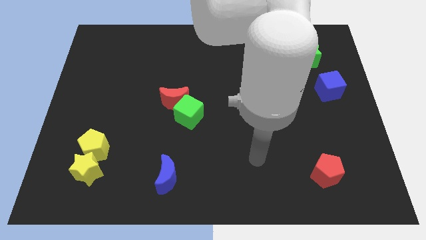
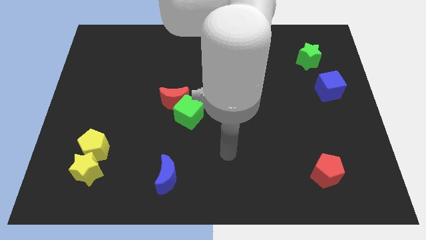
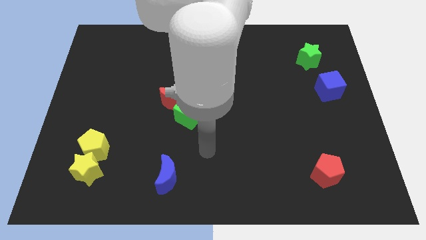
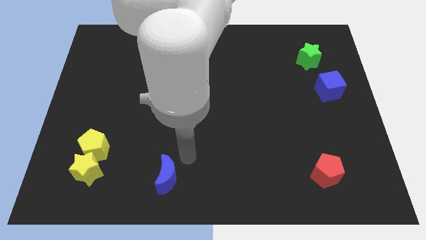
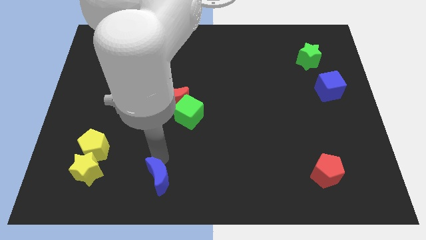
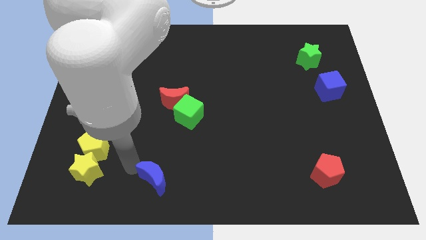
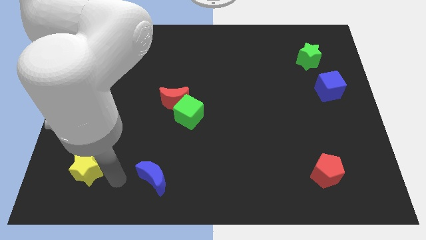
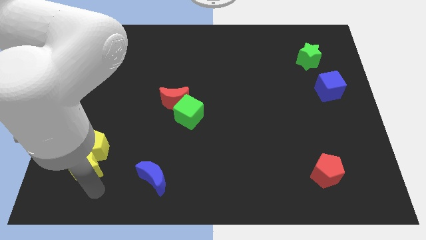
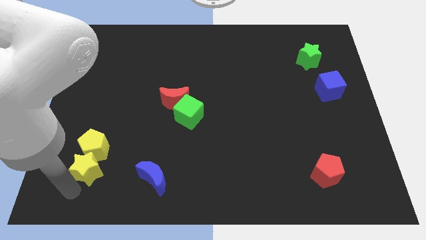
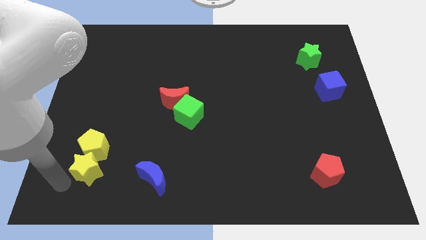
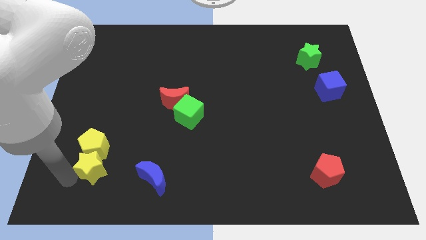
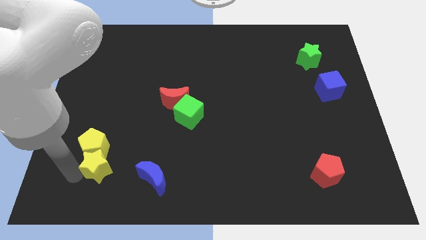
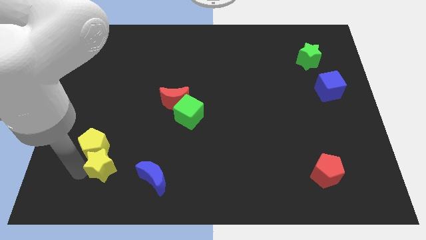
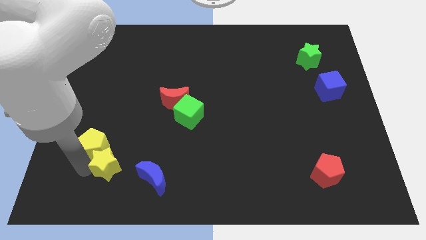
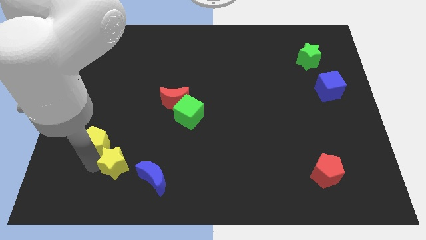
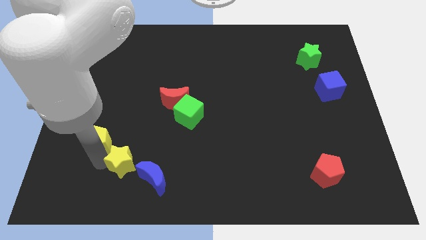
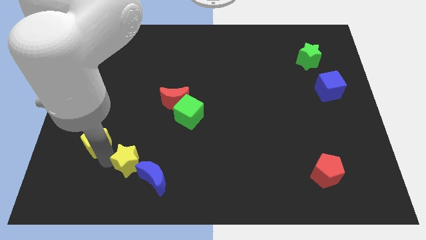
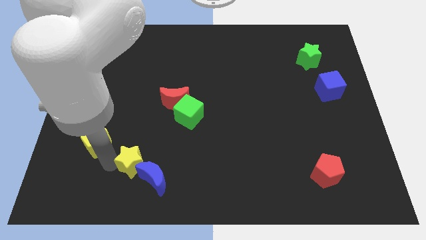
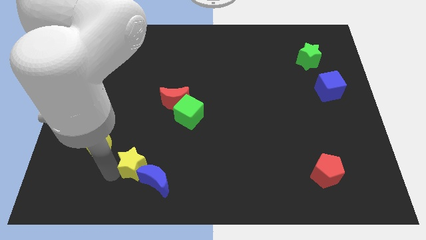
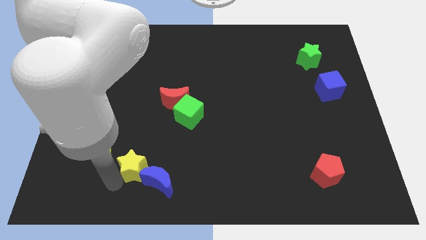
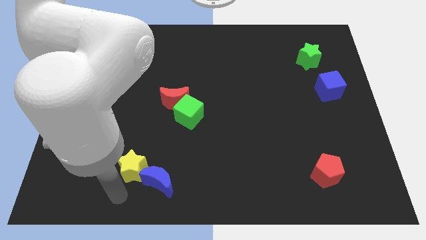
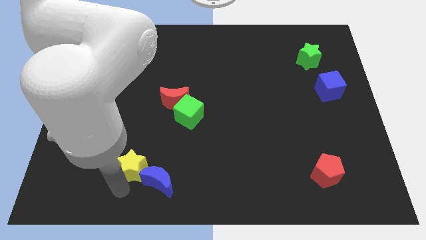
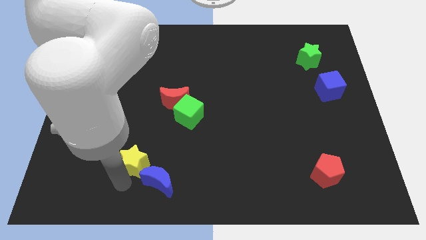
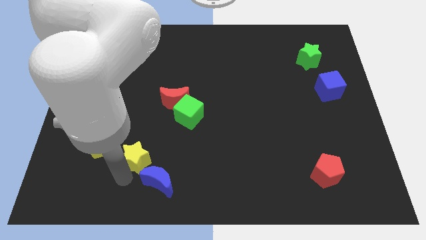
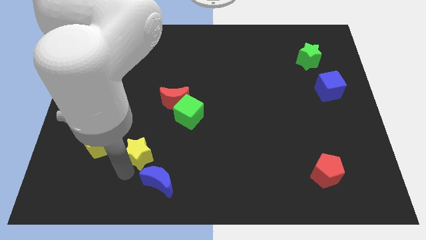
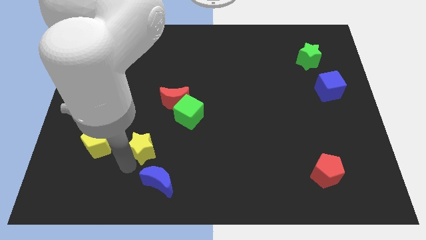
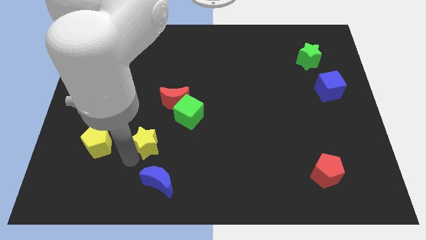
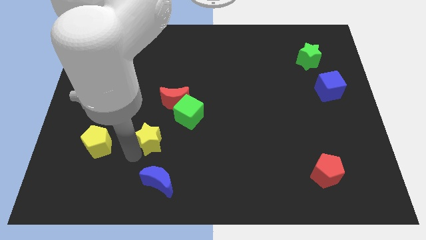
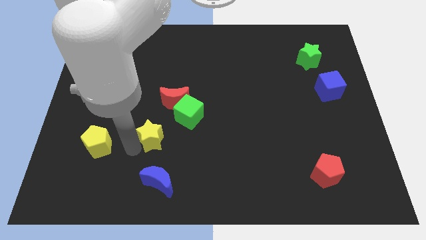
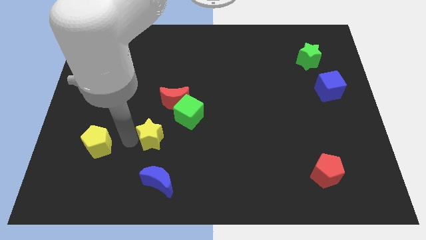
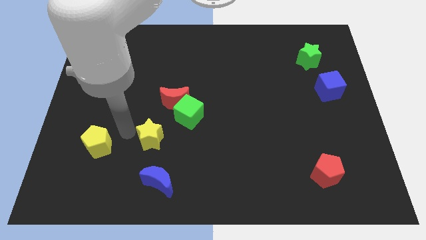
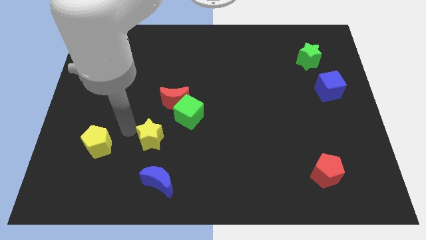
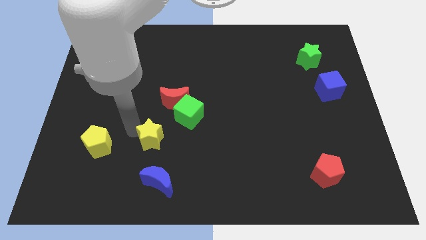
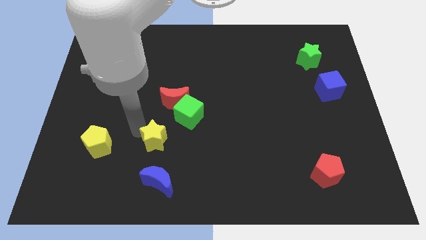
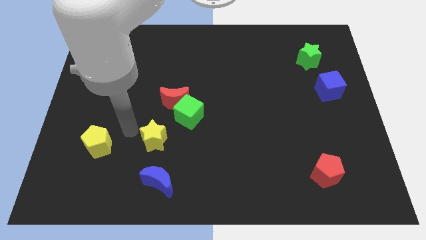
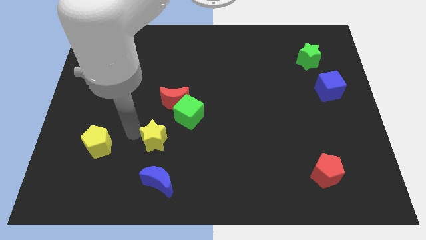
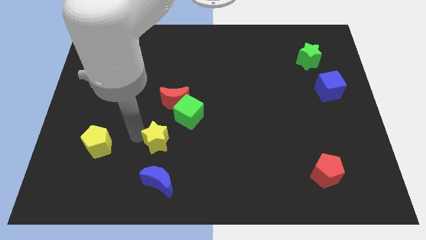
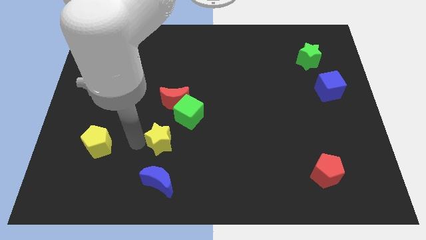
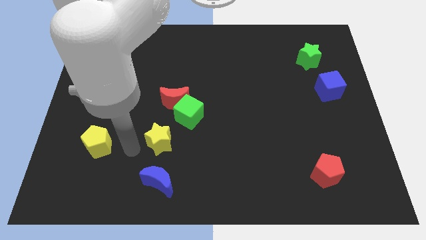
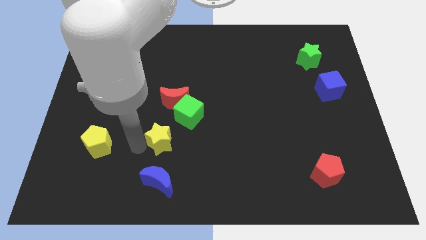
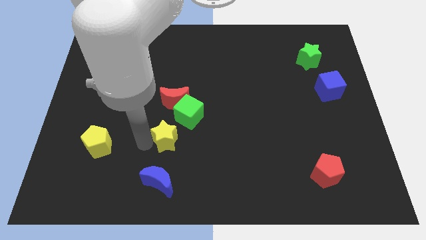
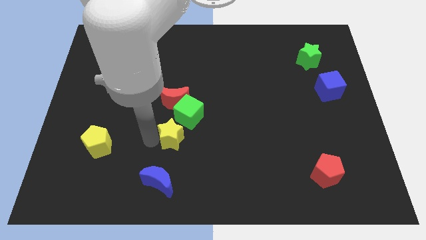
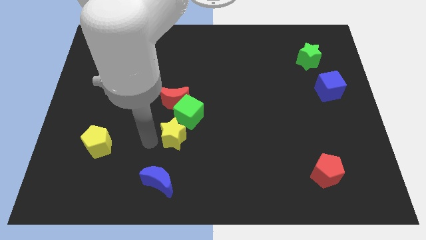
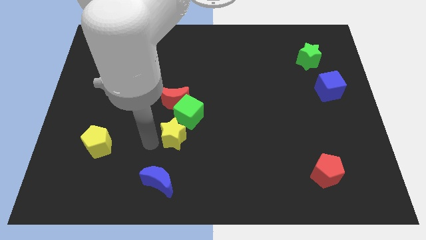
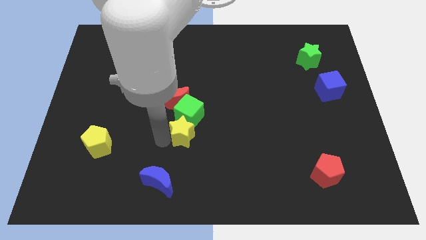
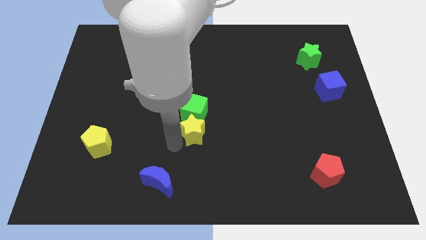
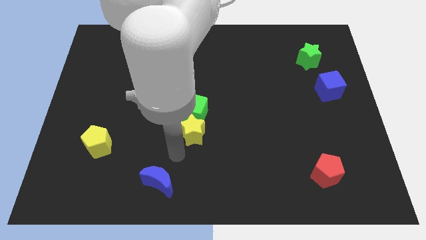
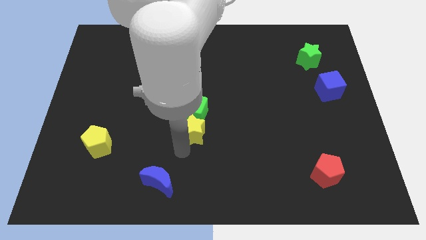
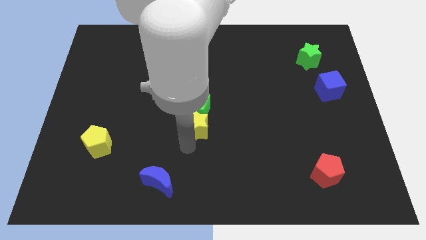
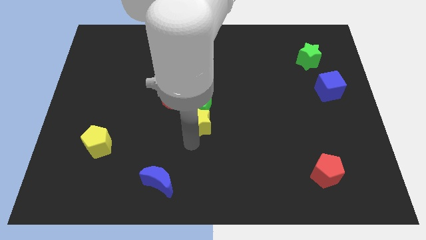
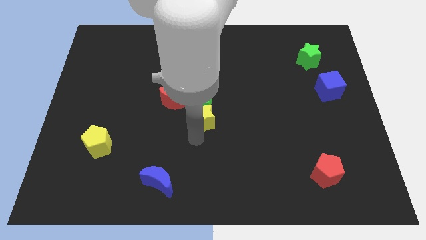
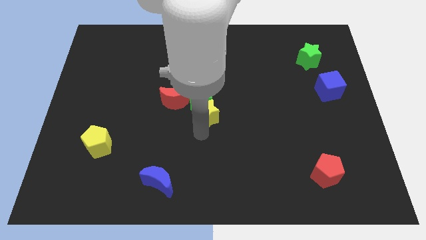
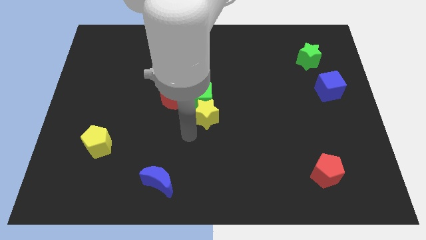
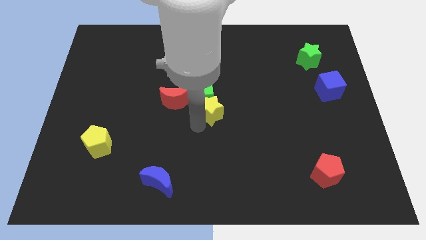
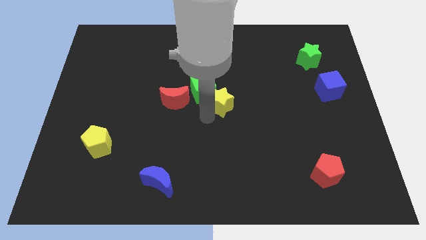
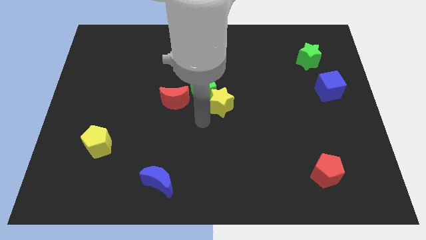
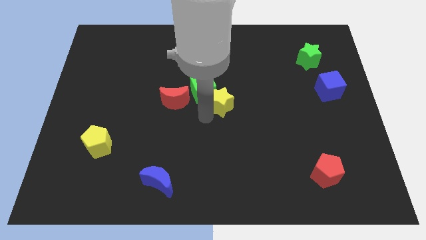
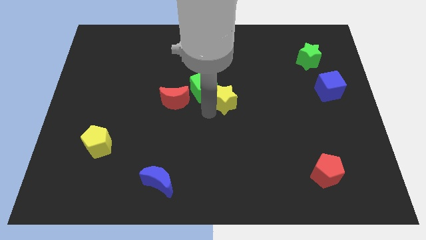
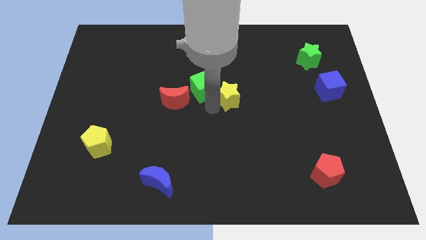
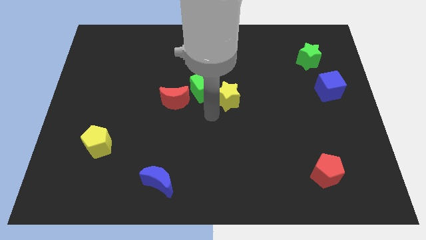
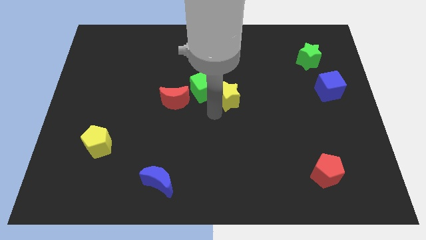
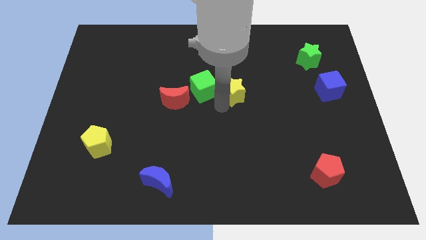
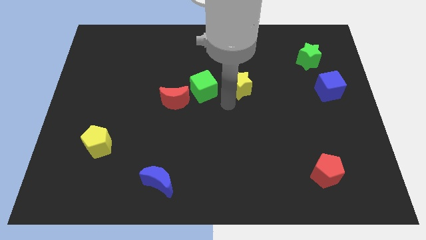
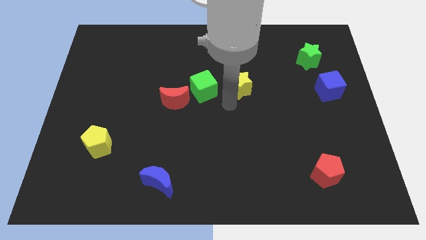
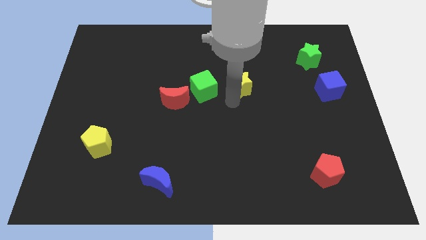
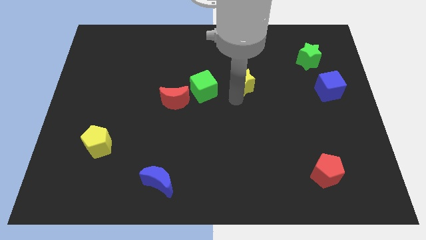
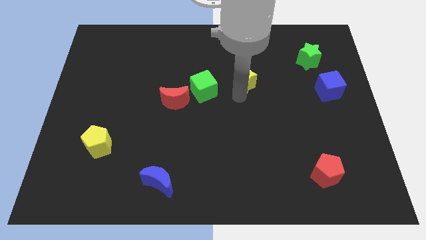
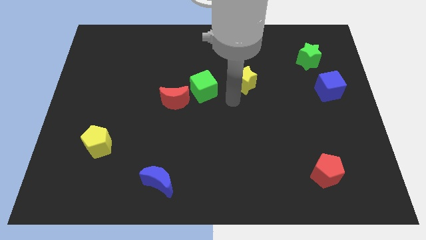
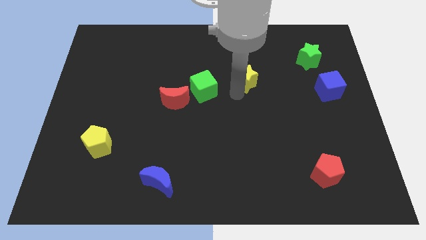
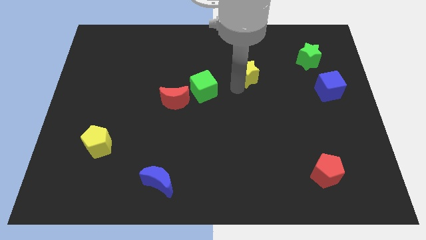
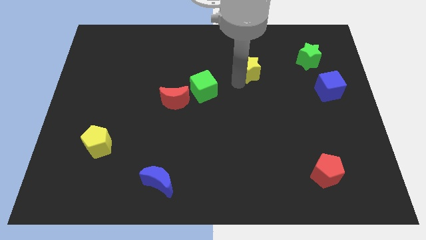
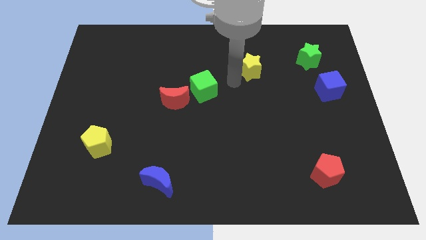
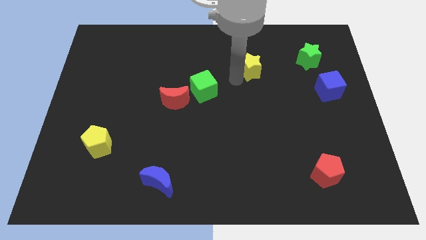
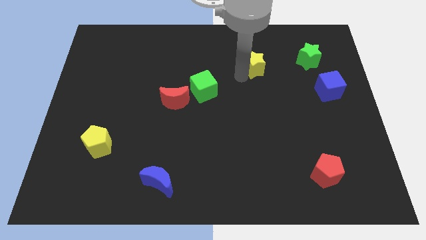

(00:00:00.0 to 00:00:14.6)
slide the yellow star to the left of the green star
